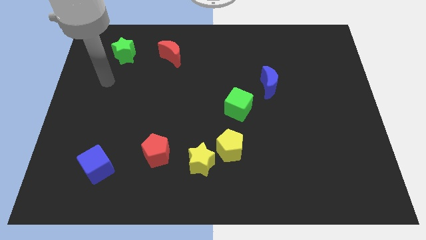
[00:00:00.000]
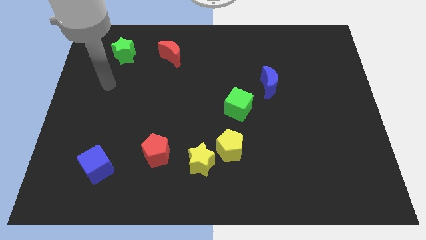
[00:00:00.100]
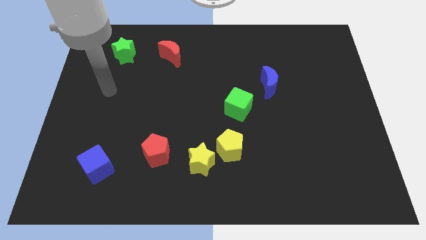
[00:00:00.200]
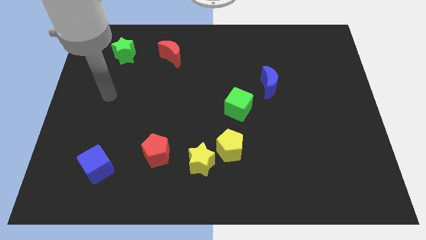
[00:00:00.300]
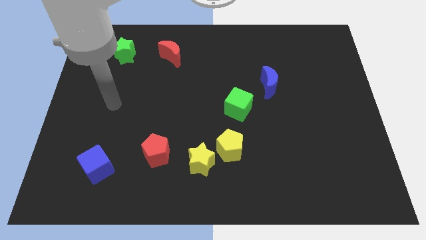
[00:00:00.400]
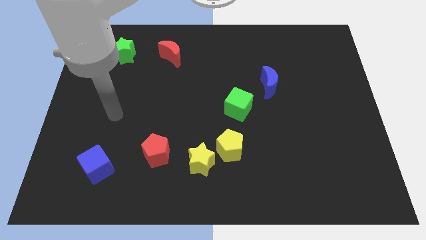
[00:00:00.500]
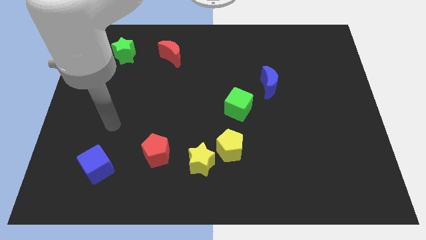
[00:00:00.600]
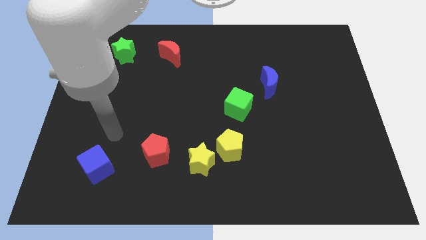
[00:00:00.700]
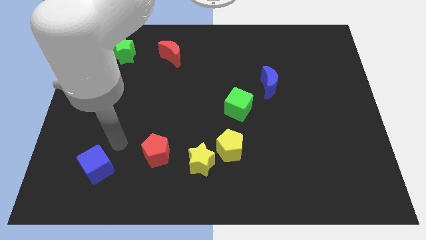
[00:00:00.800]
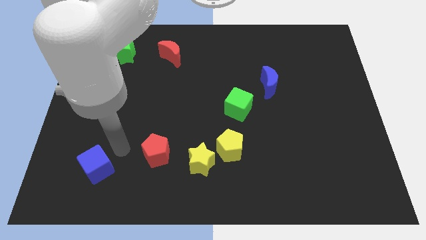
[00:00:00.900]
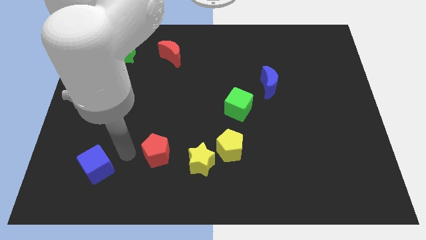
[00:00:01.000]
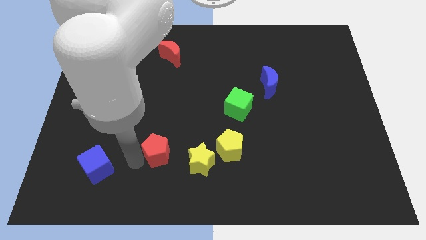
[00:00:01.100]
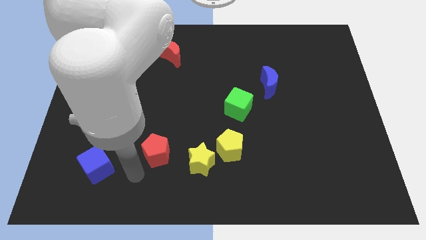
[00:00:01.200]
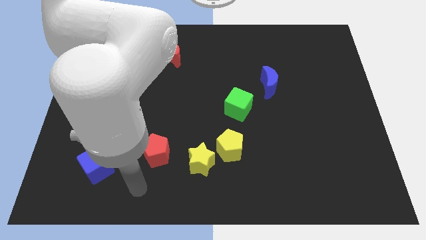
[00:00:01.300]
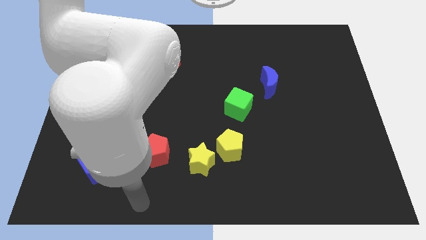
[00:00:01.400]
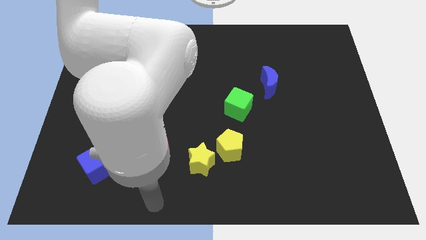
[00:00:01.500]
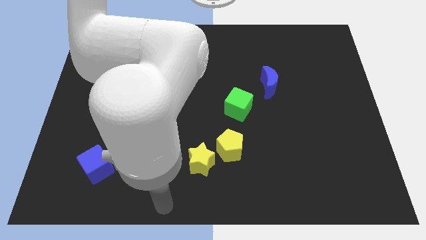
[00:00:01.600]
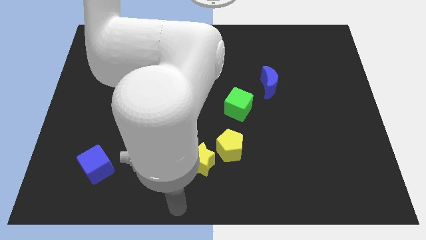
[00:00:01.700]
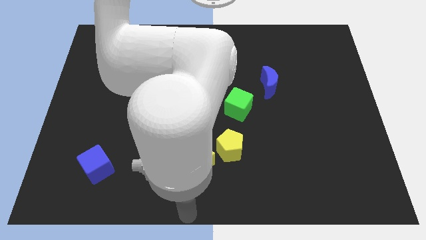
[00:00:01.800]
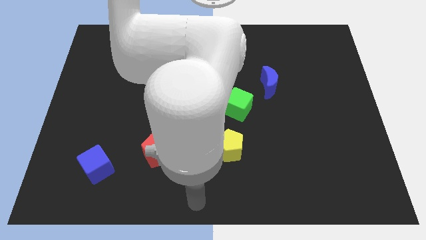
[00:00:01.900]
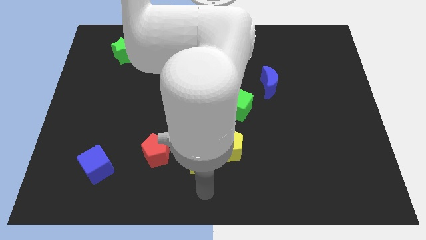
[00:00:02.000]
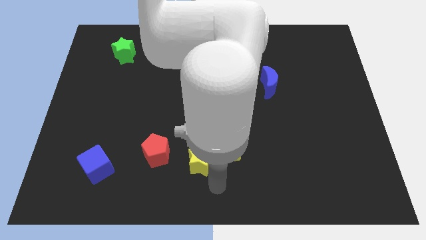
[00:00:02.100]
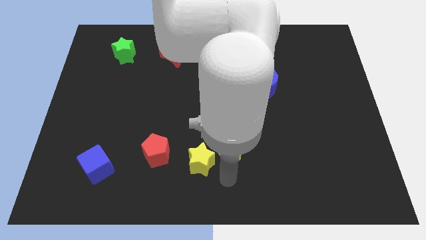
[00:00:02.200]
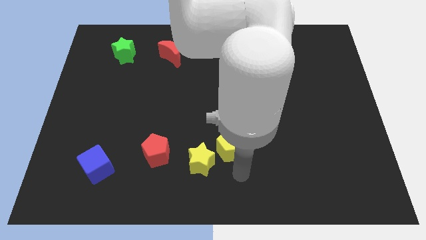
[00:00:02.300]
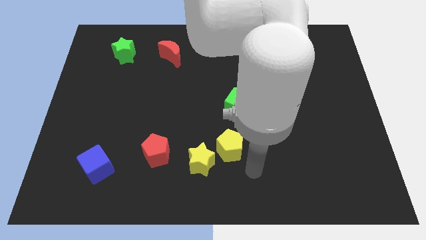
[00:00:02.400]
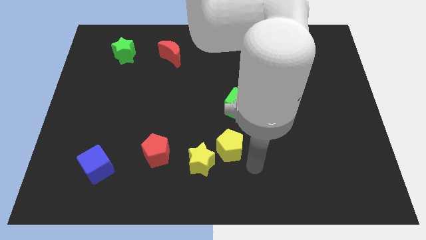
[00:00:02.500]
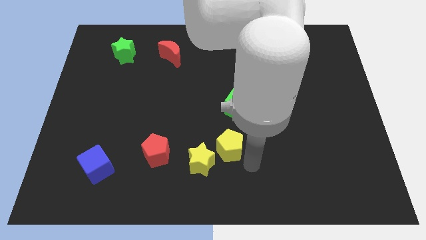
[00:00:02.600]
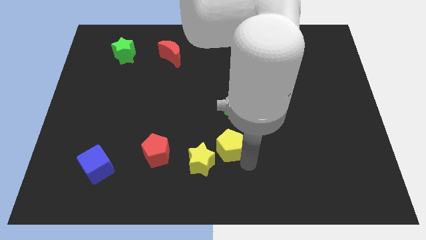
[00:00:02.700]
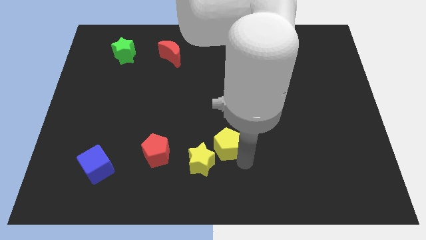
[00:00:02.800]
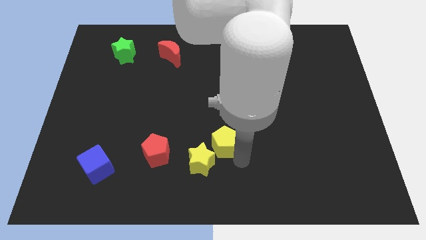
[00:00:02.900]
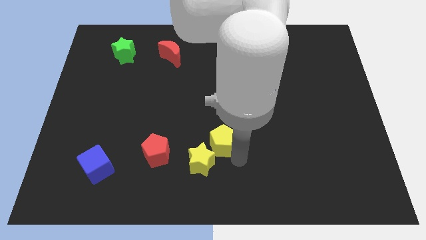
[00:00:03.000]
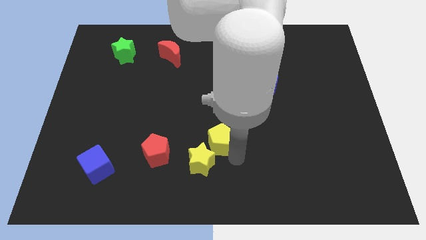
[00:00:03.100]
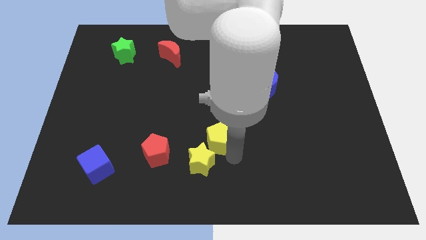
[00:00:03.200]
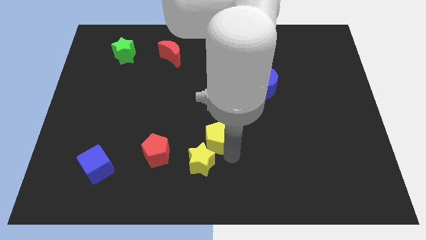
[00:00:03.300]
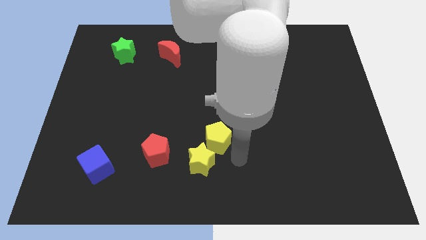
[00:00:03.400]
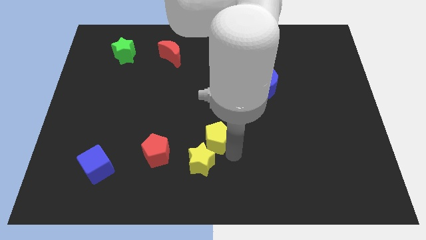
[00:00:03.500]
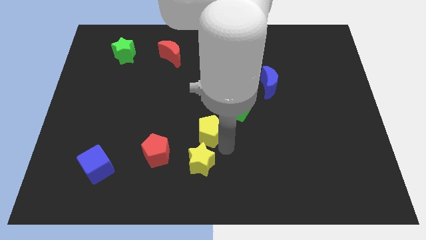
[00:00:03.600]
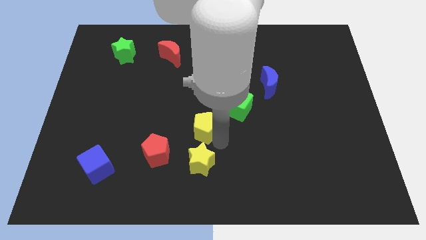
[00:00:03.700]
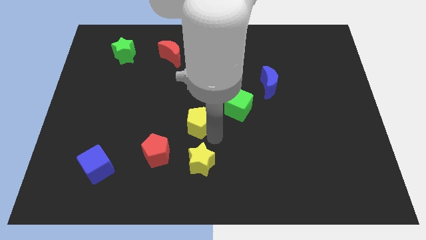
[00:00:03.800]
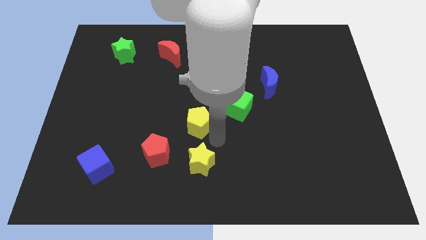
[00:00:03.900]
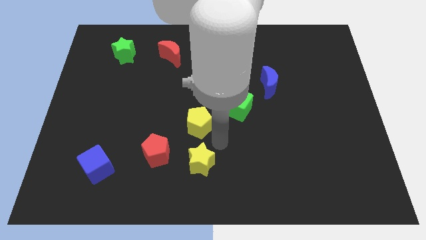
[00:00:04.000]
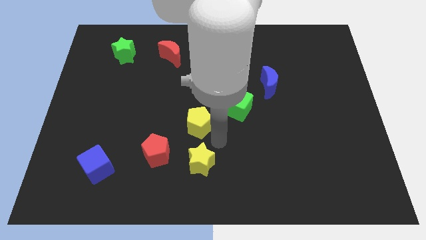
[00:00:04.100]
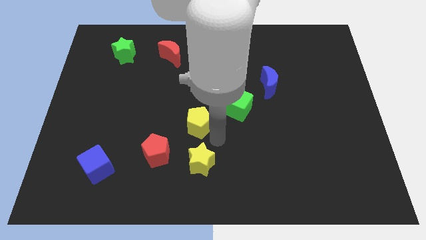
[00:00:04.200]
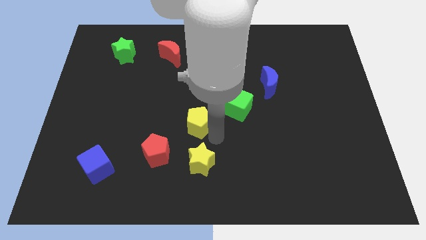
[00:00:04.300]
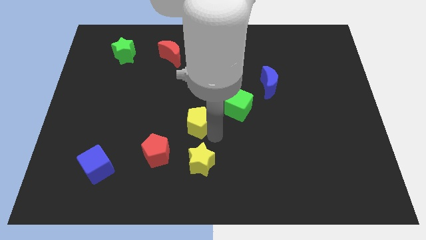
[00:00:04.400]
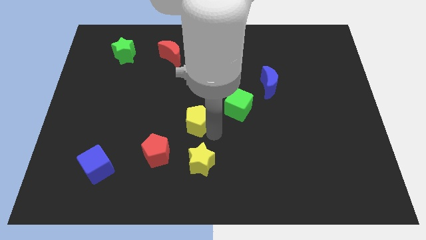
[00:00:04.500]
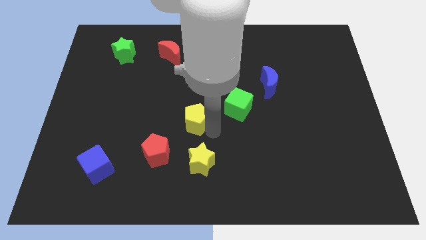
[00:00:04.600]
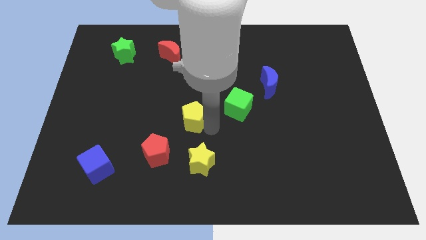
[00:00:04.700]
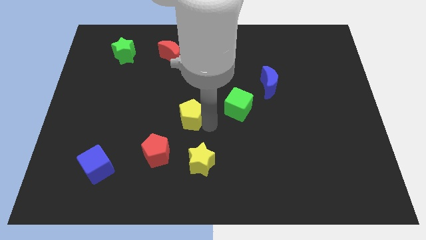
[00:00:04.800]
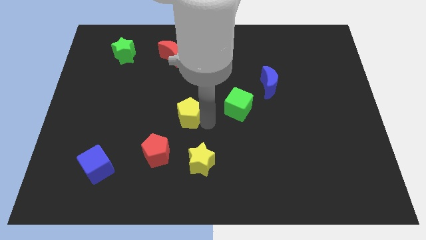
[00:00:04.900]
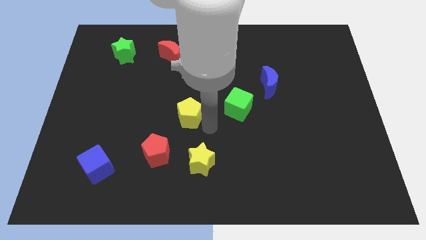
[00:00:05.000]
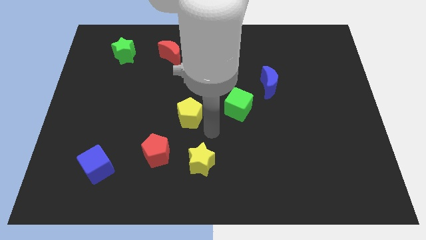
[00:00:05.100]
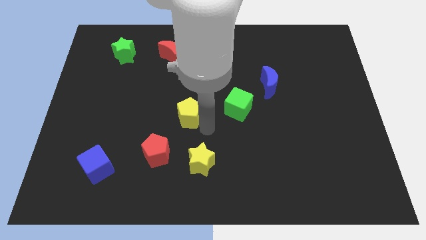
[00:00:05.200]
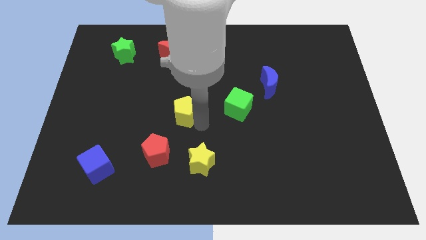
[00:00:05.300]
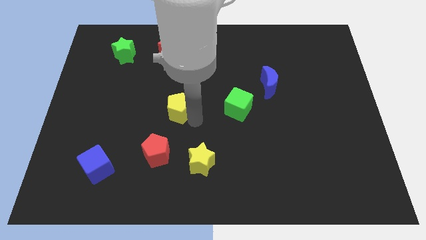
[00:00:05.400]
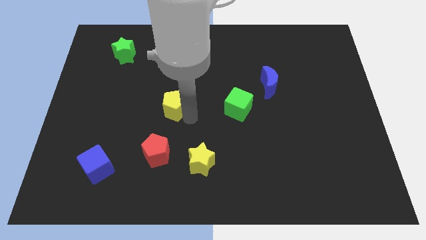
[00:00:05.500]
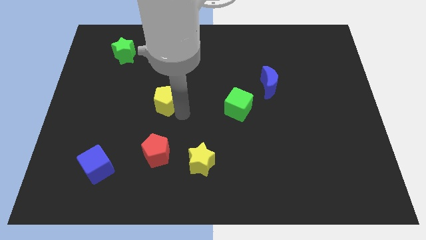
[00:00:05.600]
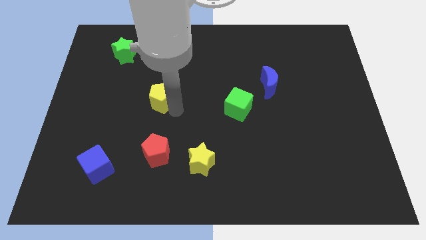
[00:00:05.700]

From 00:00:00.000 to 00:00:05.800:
push the yellow pentagon upwards and left diagonally

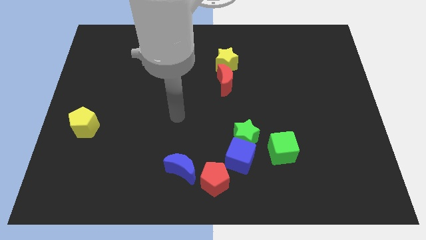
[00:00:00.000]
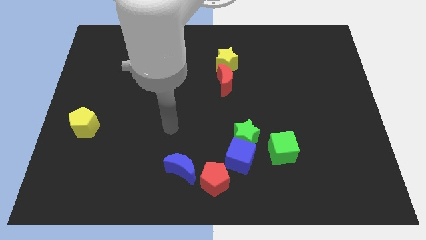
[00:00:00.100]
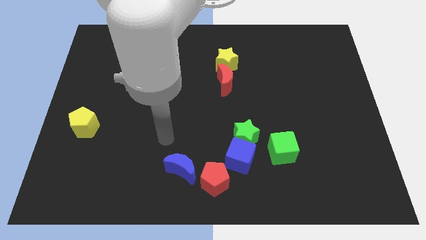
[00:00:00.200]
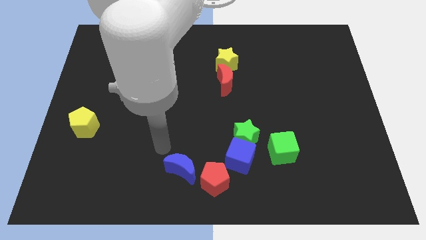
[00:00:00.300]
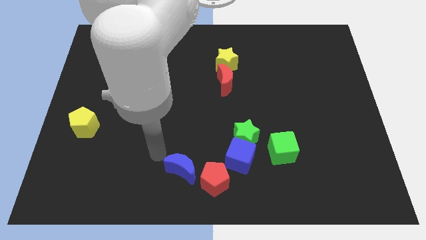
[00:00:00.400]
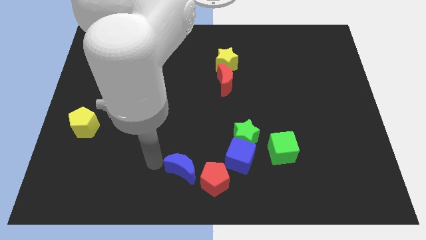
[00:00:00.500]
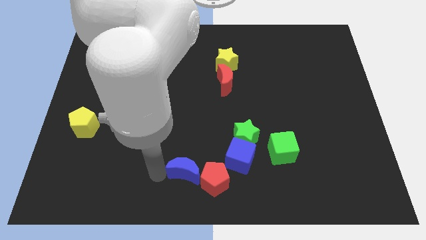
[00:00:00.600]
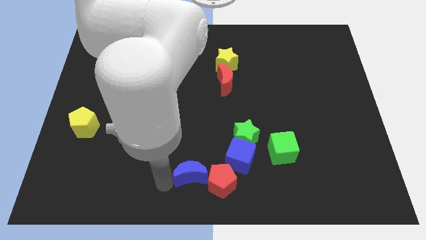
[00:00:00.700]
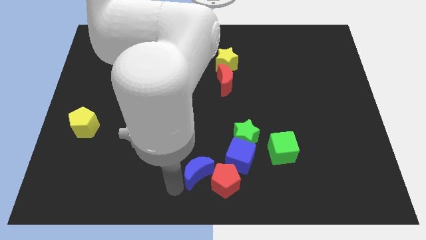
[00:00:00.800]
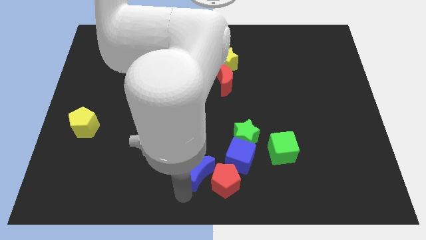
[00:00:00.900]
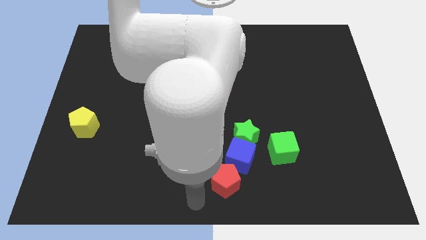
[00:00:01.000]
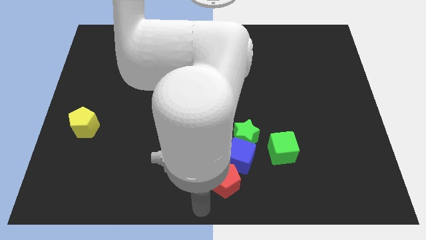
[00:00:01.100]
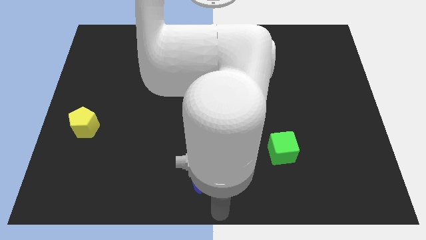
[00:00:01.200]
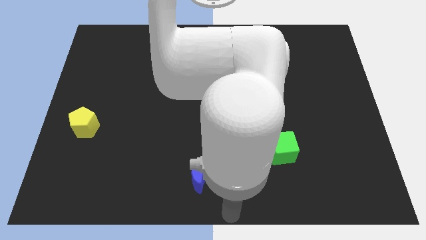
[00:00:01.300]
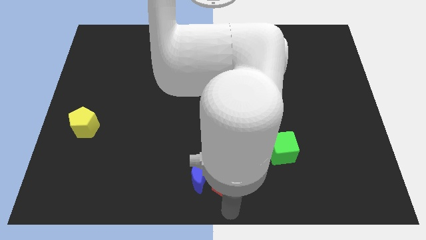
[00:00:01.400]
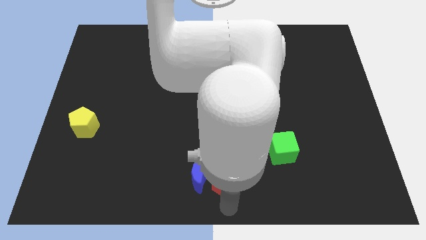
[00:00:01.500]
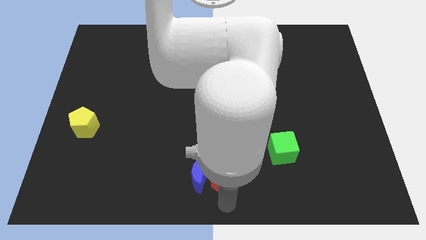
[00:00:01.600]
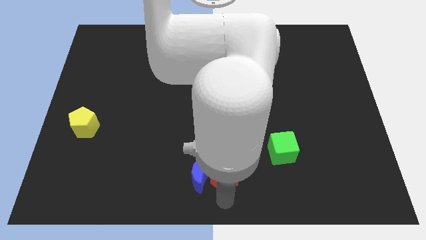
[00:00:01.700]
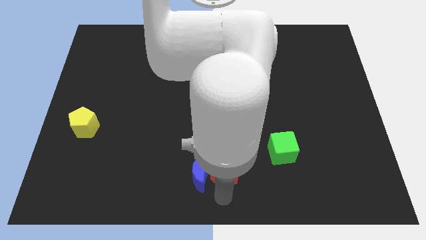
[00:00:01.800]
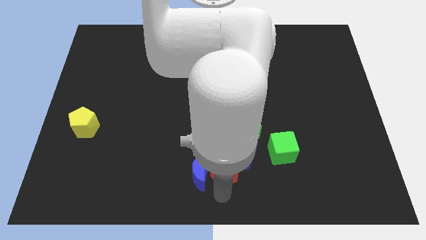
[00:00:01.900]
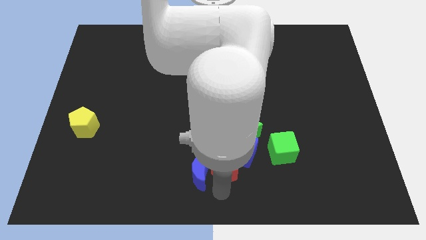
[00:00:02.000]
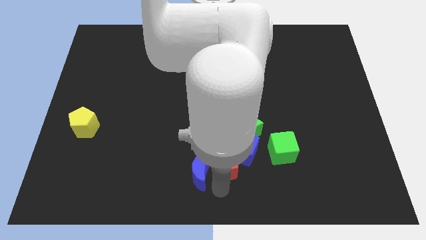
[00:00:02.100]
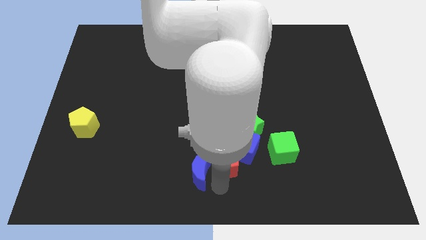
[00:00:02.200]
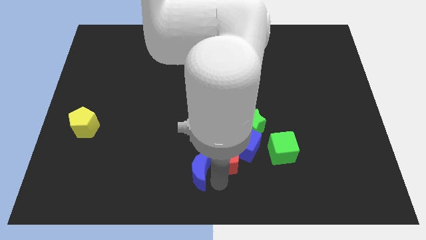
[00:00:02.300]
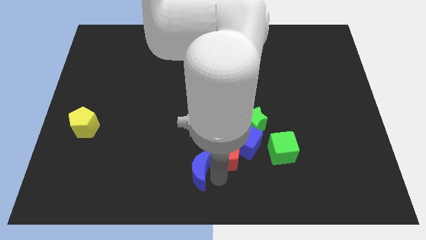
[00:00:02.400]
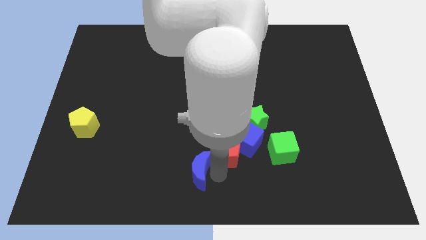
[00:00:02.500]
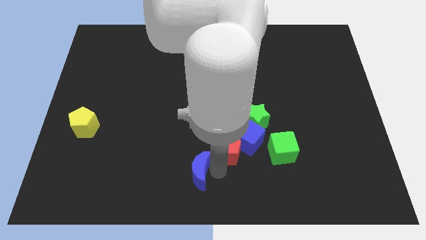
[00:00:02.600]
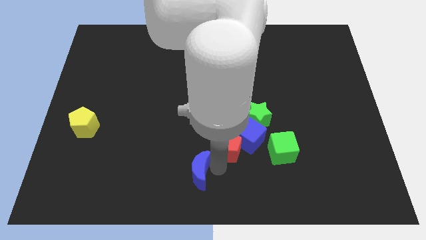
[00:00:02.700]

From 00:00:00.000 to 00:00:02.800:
push the red pentagon somewhat up and then right
